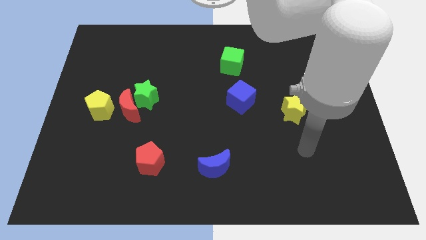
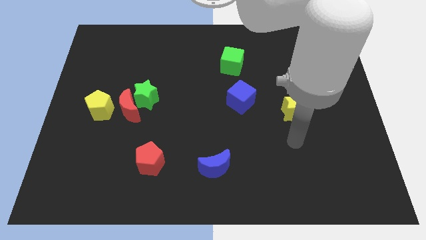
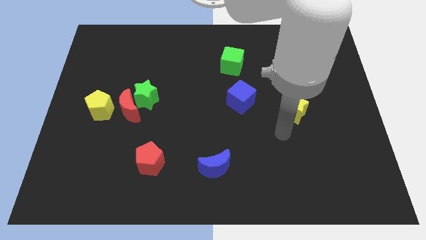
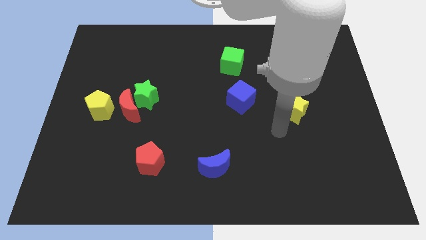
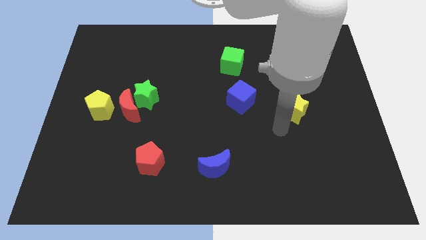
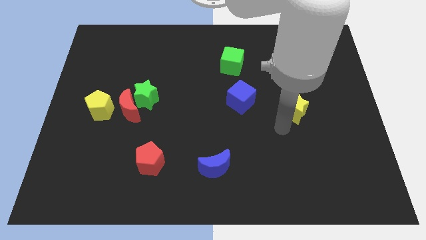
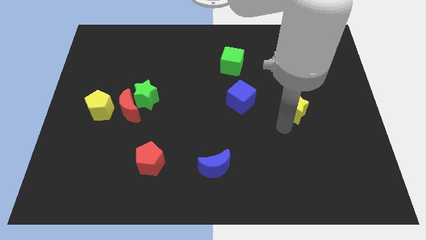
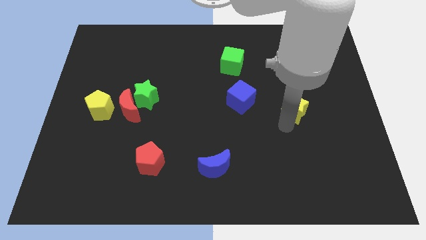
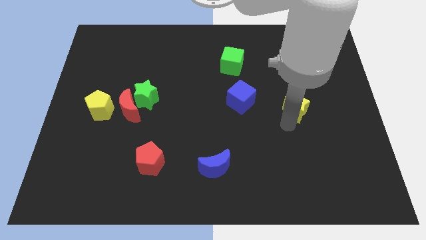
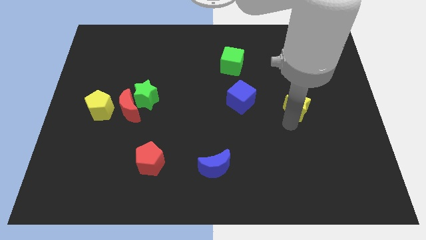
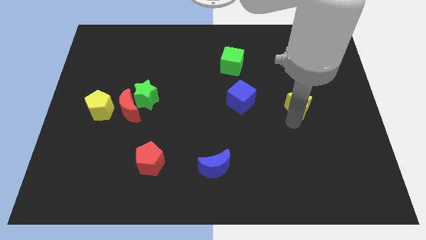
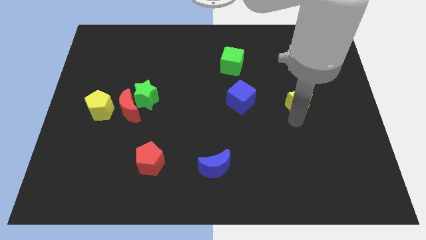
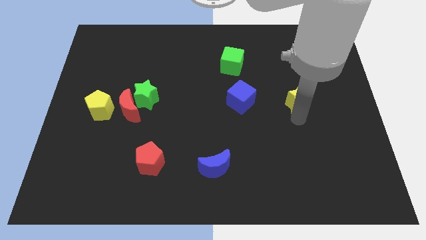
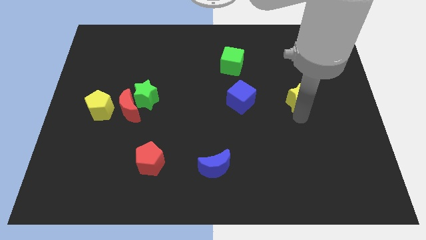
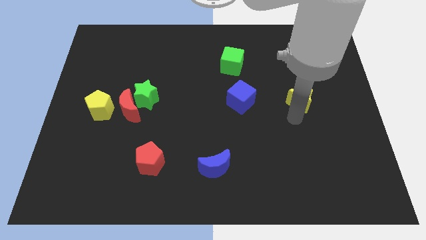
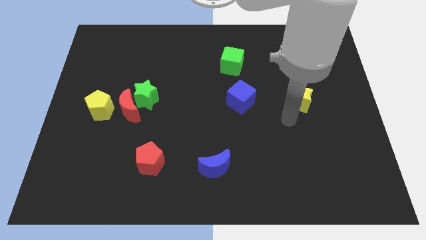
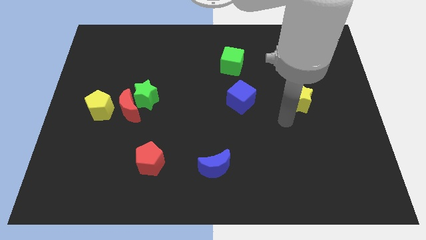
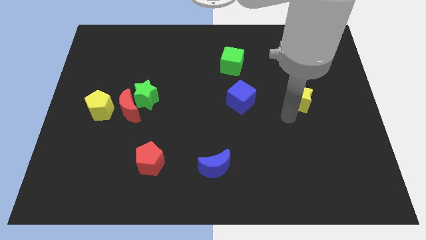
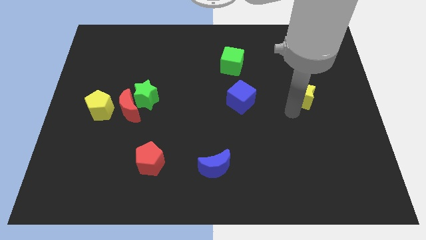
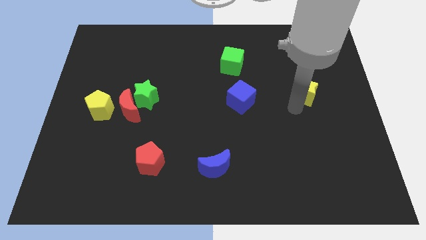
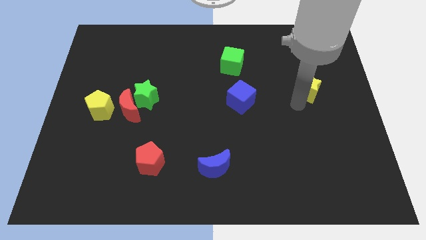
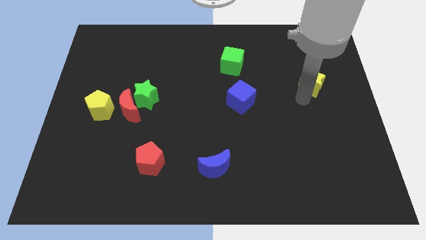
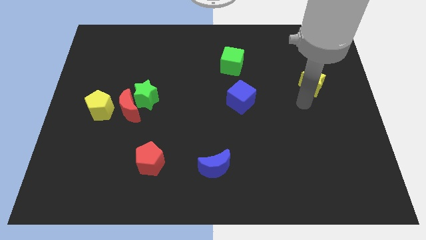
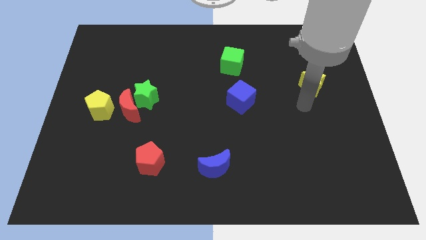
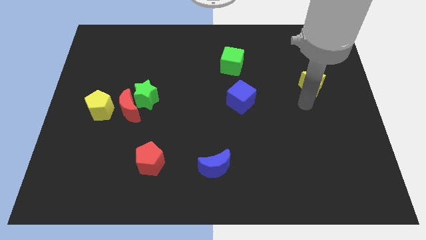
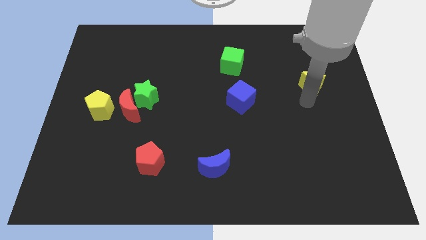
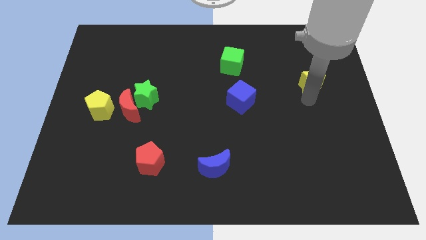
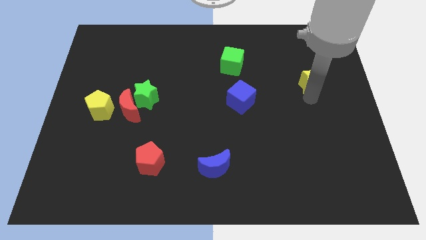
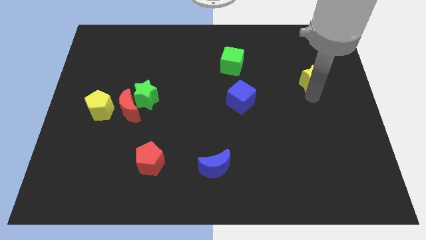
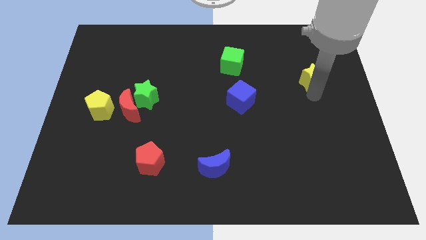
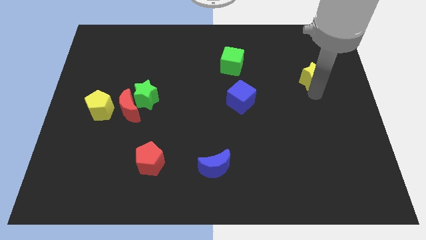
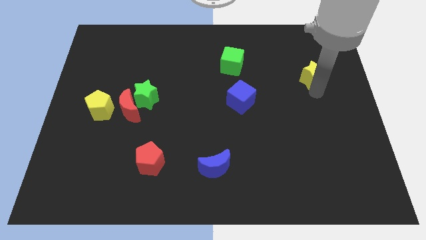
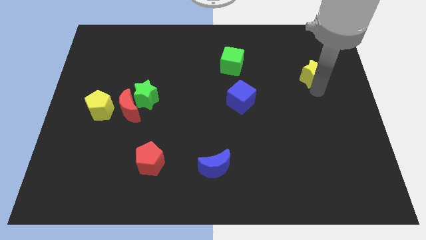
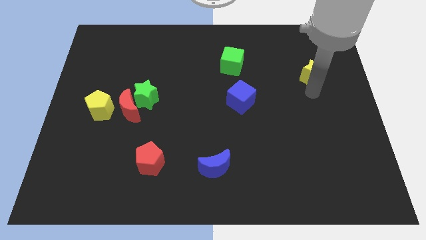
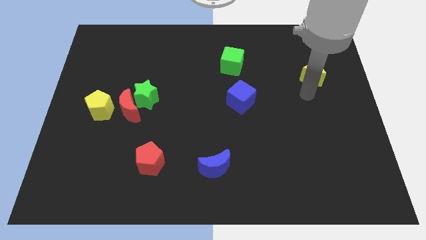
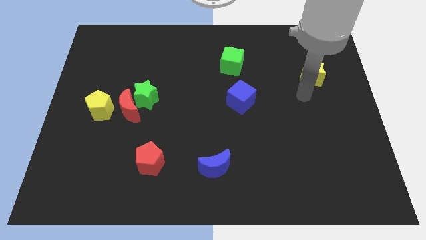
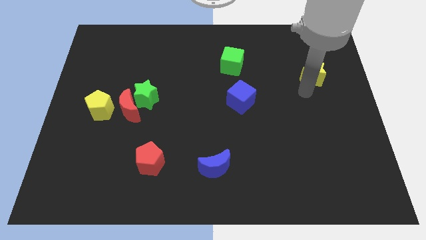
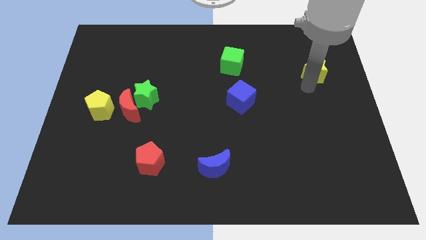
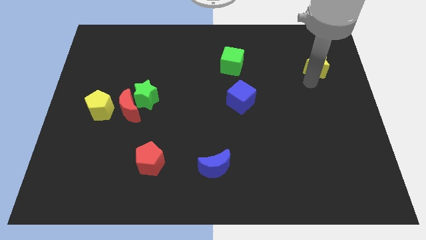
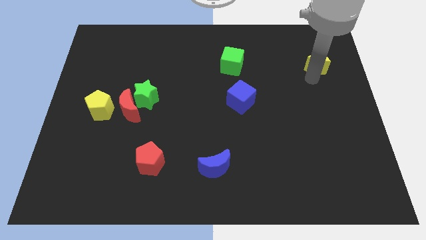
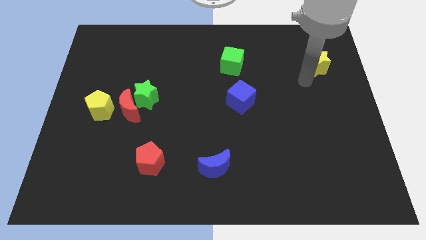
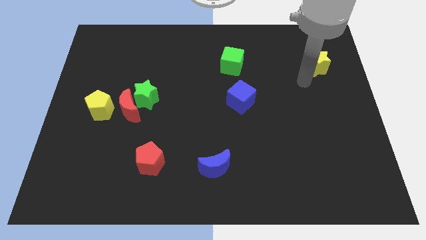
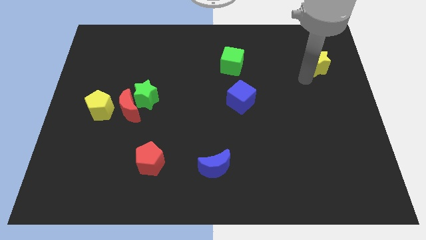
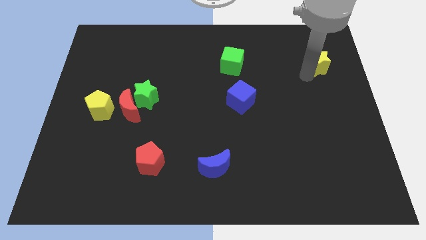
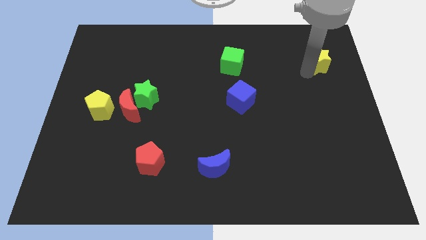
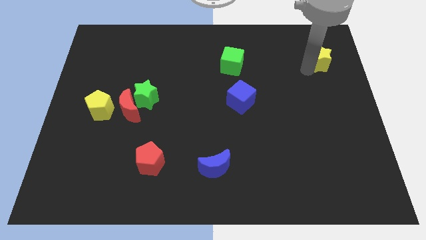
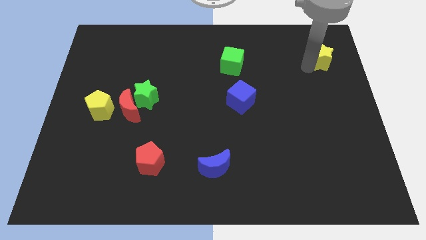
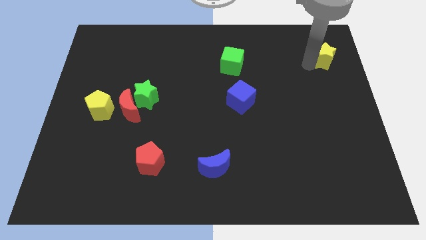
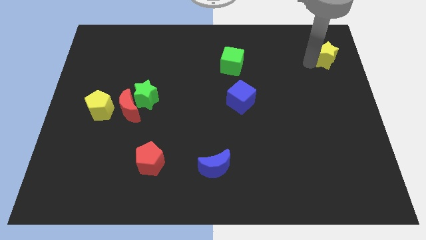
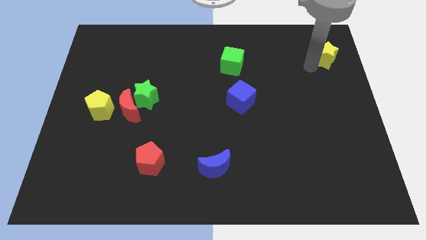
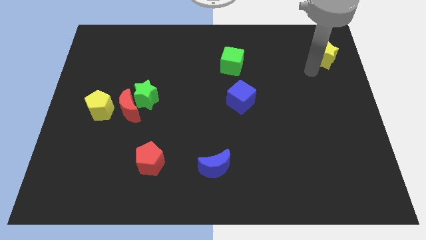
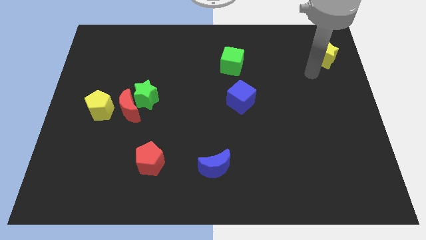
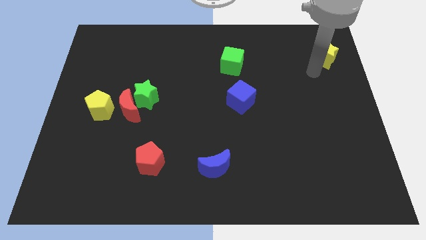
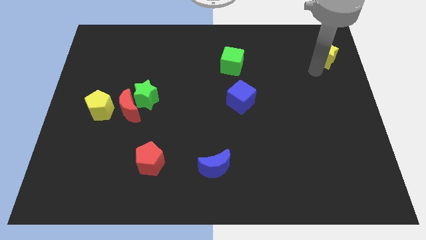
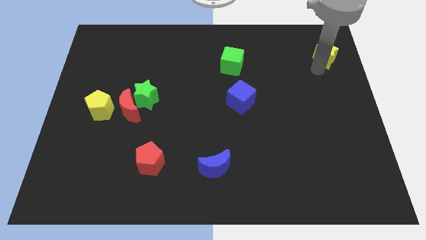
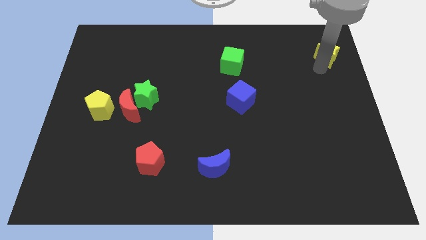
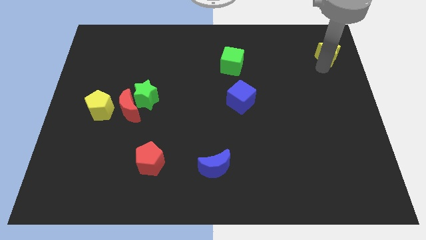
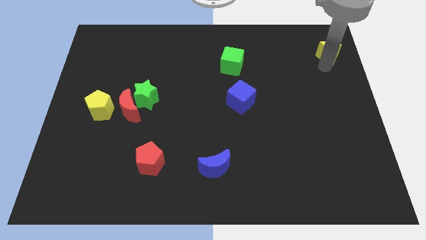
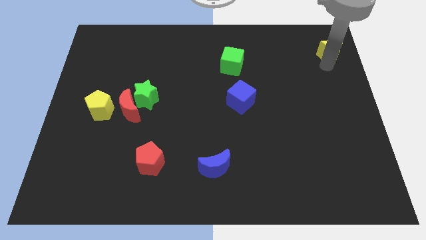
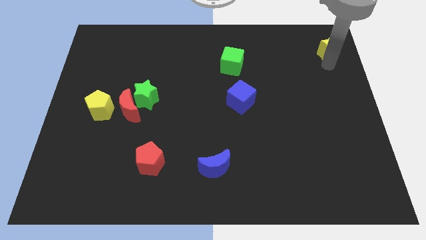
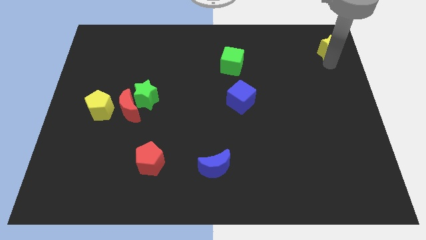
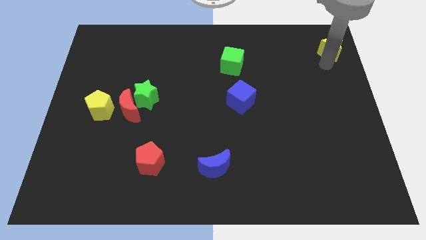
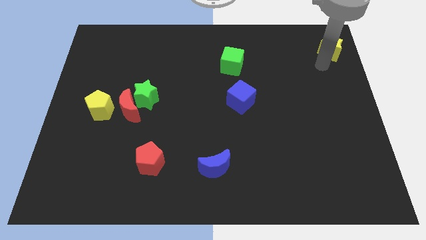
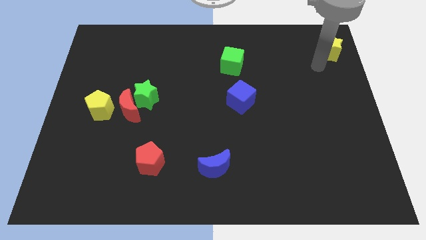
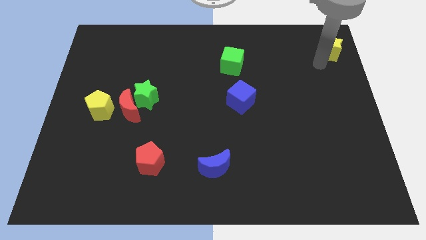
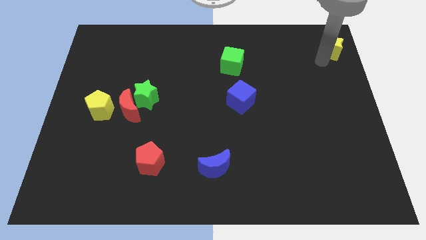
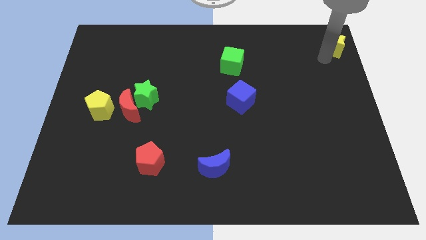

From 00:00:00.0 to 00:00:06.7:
move the yellow star to the top right of the board

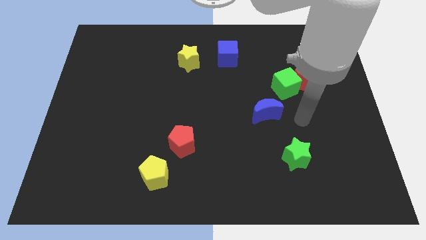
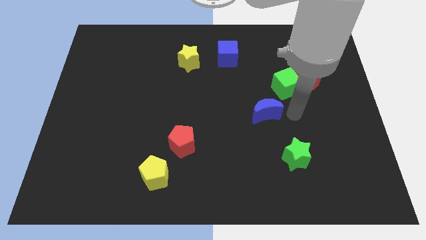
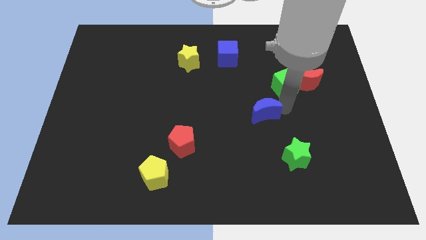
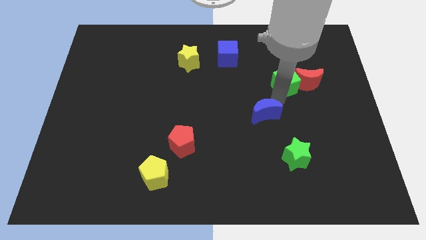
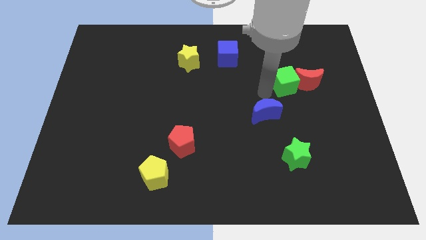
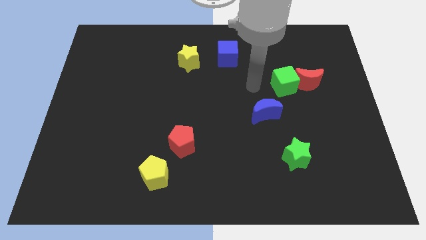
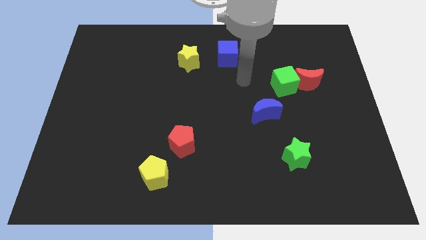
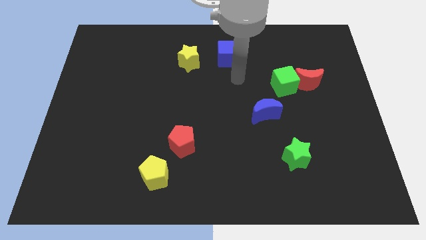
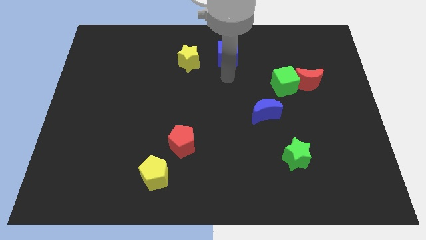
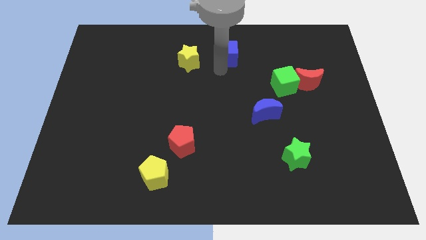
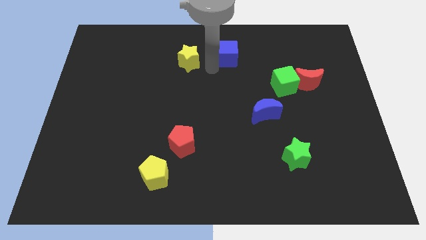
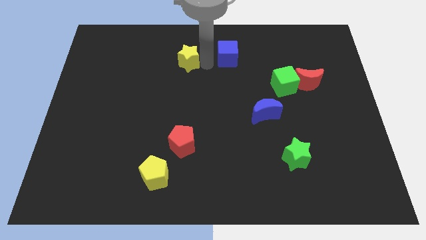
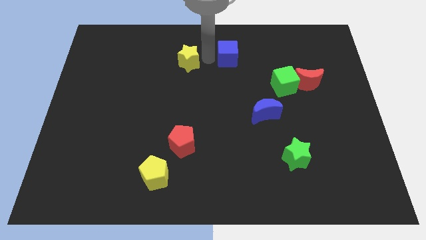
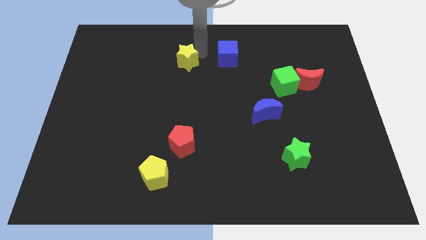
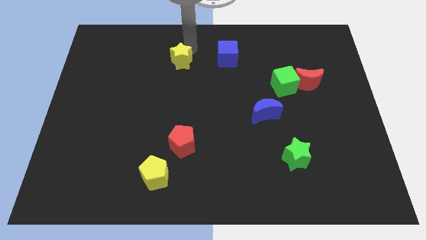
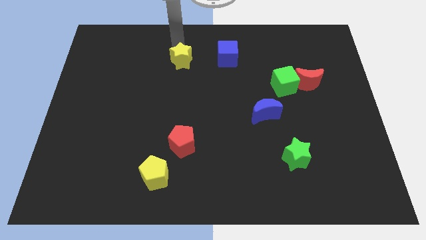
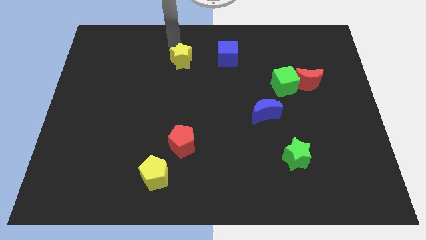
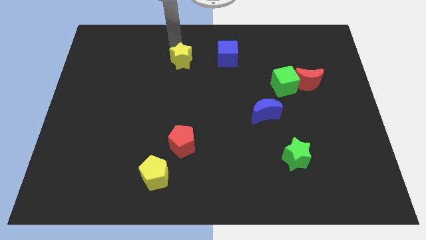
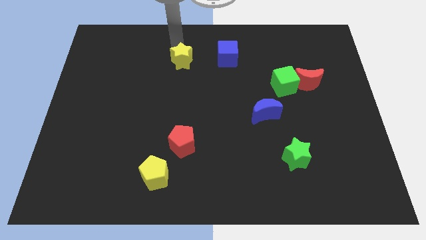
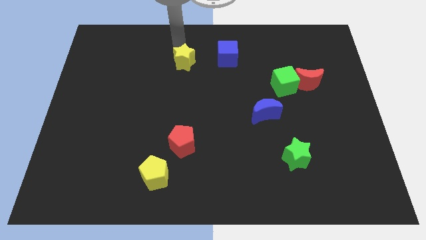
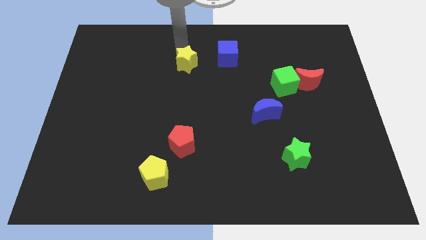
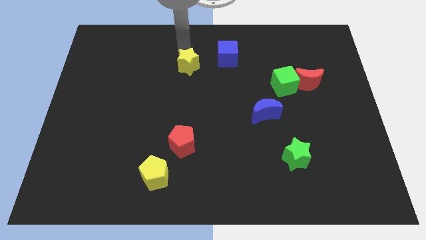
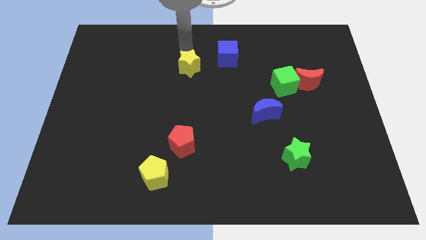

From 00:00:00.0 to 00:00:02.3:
push the yellow star to the center of the board
